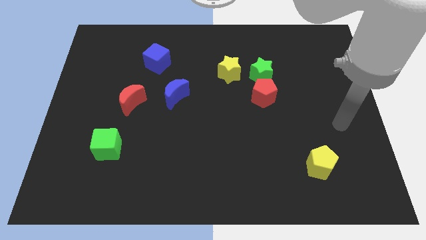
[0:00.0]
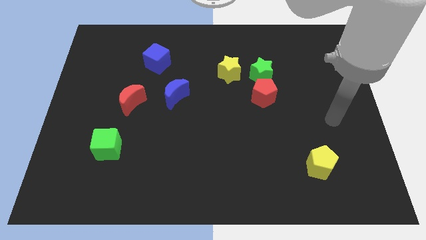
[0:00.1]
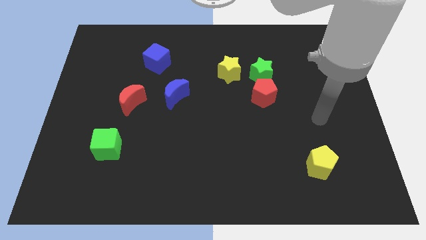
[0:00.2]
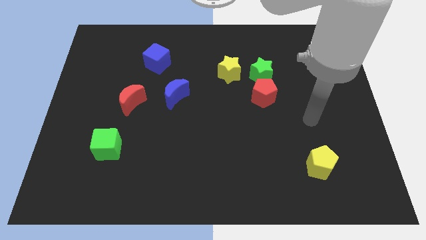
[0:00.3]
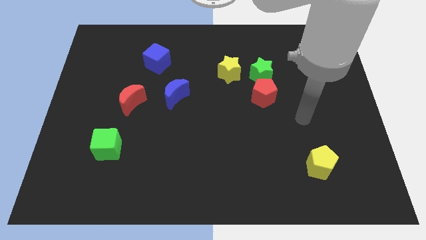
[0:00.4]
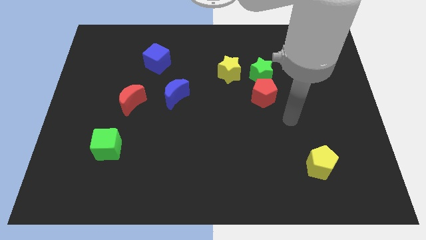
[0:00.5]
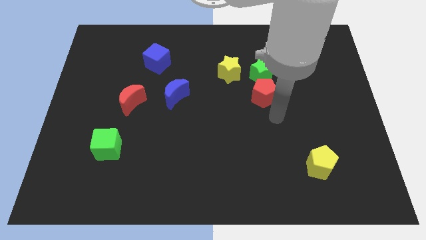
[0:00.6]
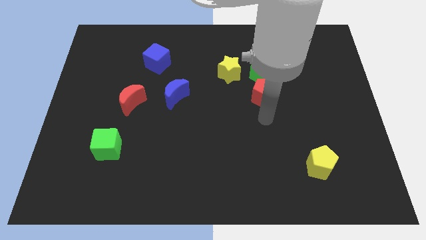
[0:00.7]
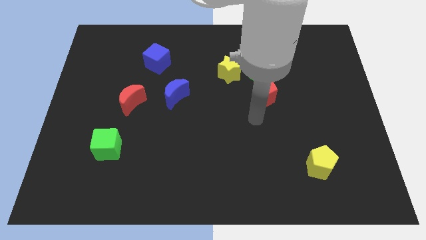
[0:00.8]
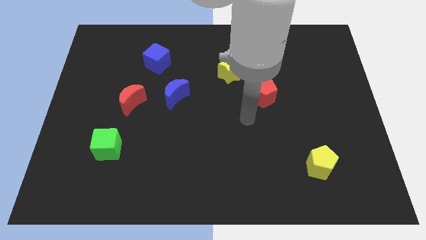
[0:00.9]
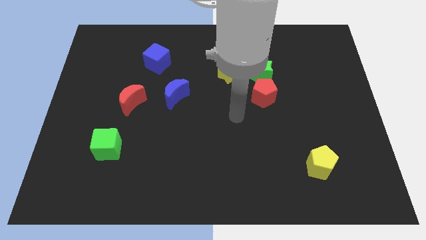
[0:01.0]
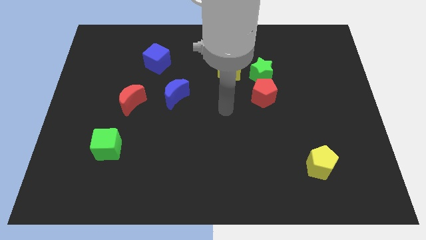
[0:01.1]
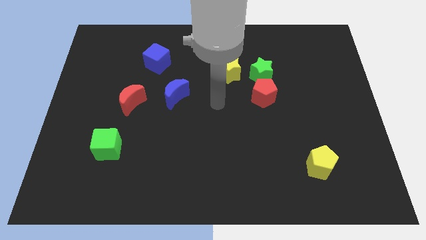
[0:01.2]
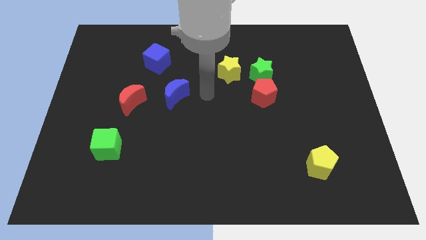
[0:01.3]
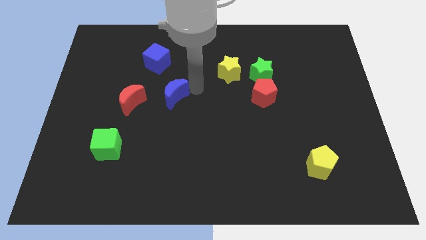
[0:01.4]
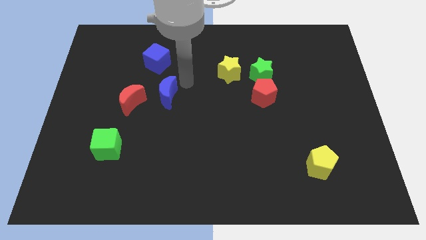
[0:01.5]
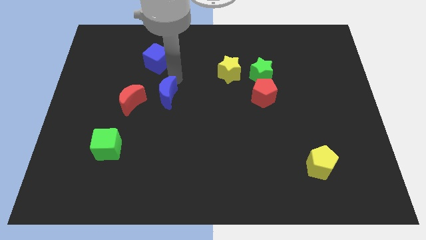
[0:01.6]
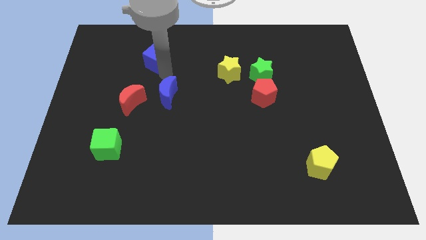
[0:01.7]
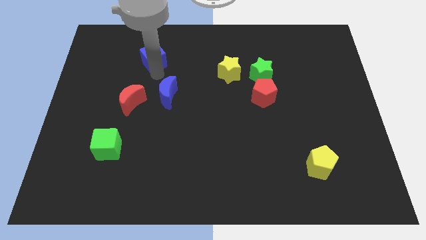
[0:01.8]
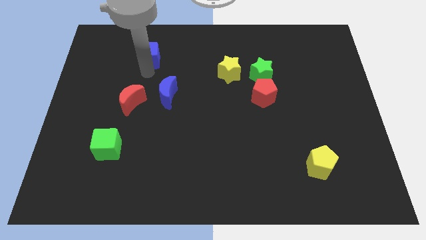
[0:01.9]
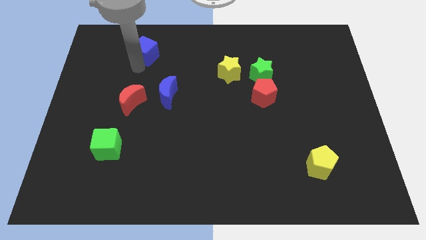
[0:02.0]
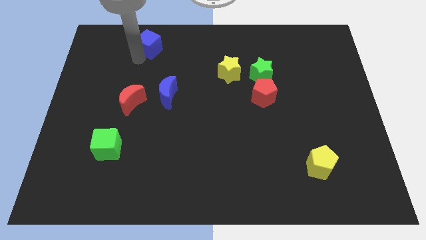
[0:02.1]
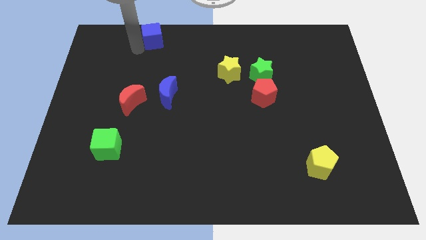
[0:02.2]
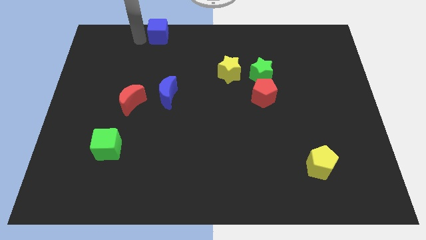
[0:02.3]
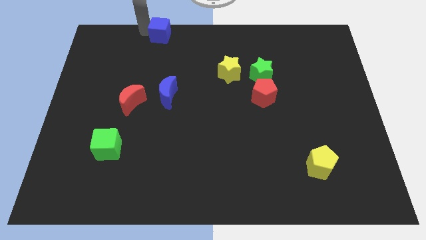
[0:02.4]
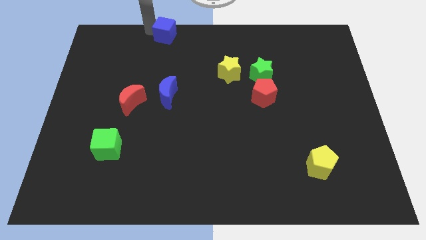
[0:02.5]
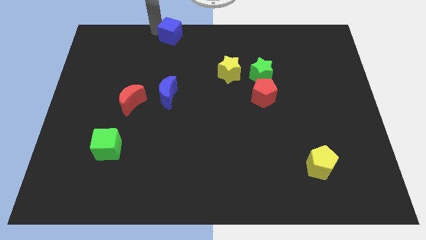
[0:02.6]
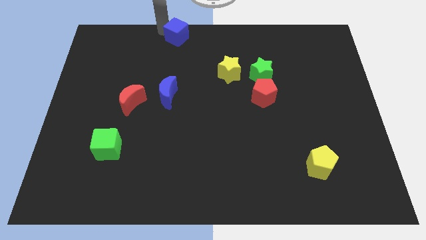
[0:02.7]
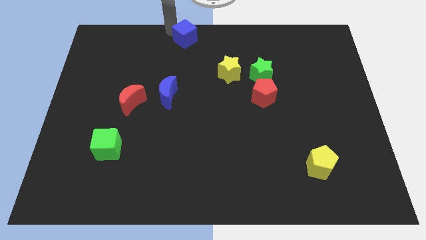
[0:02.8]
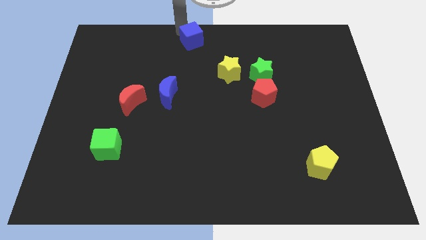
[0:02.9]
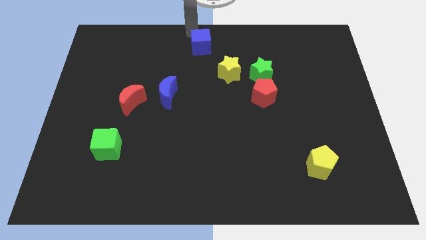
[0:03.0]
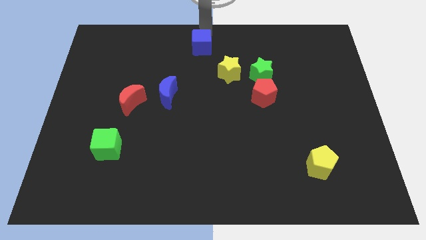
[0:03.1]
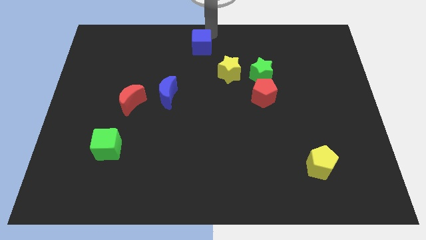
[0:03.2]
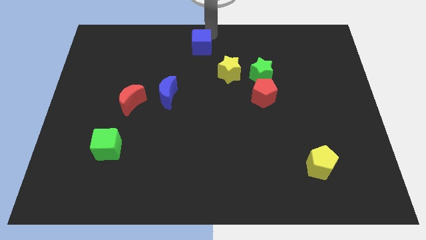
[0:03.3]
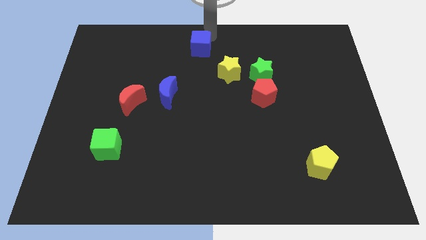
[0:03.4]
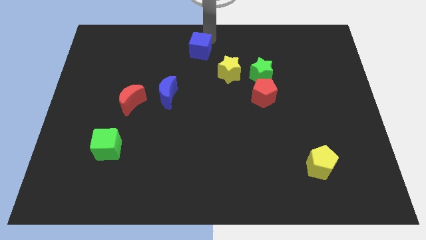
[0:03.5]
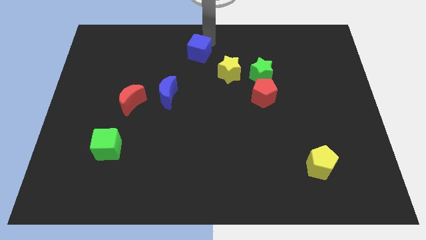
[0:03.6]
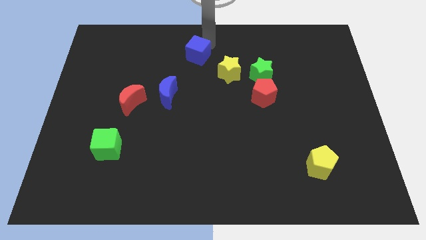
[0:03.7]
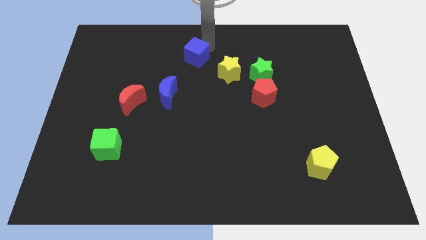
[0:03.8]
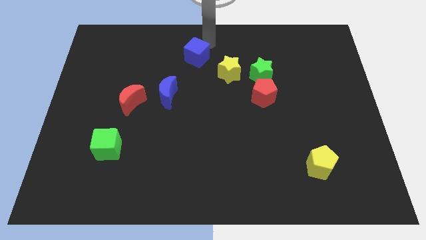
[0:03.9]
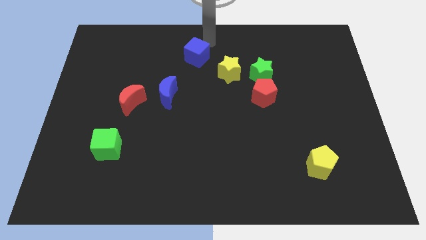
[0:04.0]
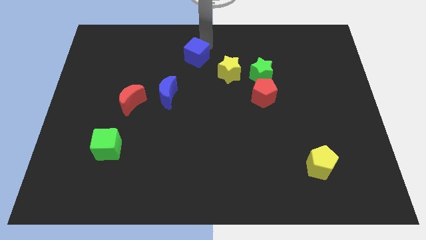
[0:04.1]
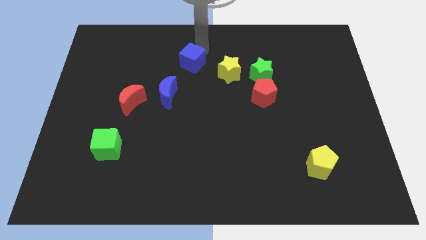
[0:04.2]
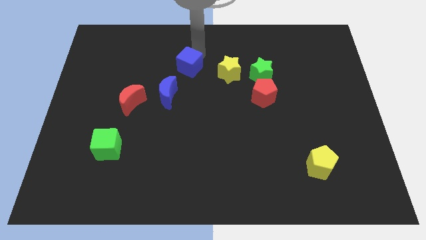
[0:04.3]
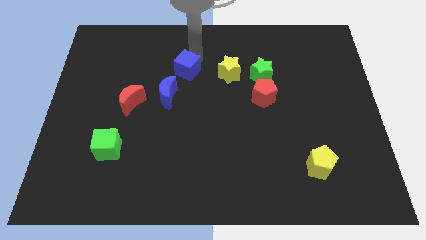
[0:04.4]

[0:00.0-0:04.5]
slightly slide the blue cube diagonally downwards and to the right

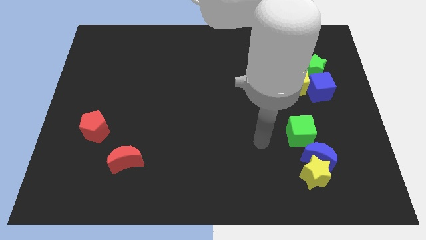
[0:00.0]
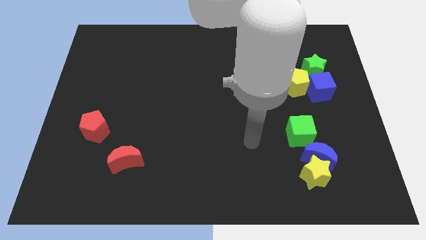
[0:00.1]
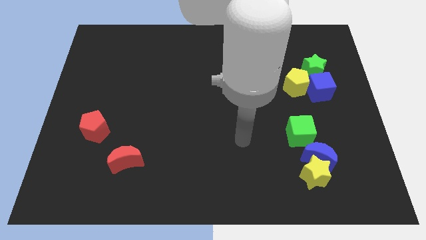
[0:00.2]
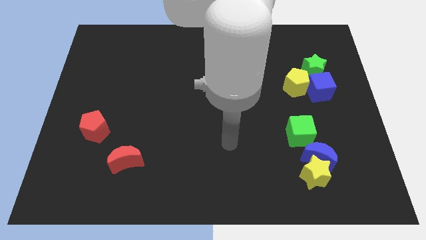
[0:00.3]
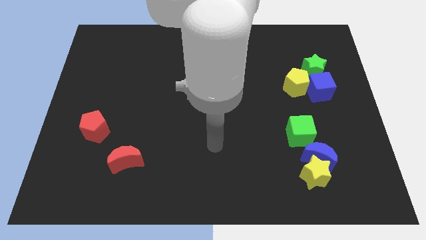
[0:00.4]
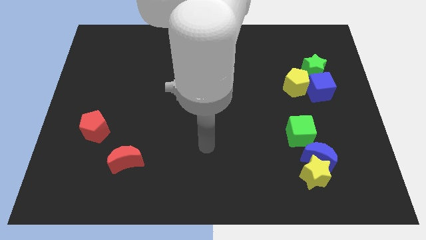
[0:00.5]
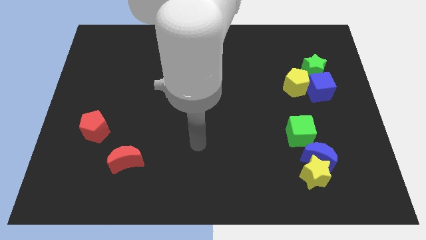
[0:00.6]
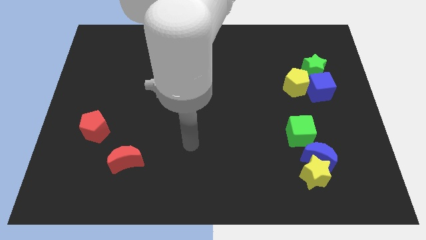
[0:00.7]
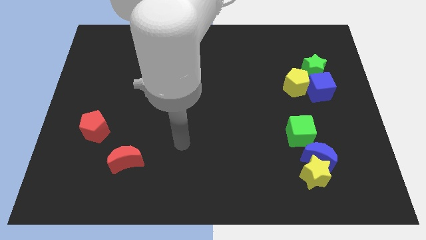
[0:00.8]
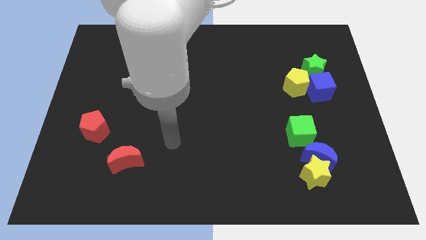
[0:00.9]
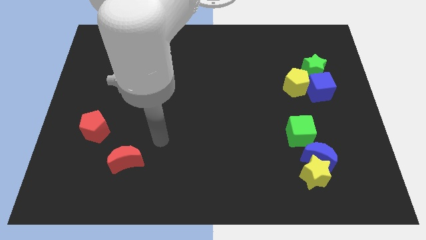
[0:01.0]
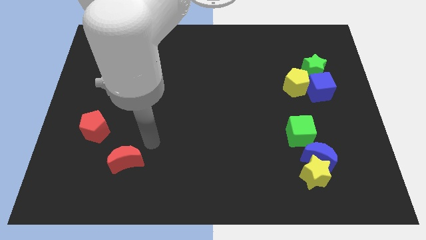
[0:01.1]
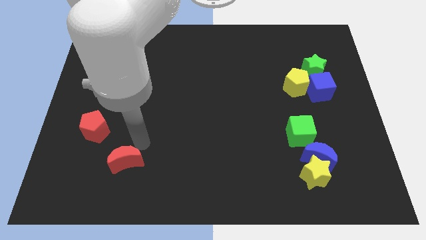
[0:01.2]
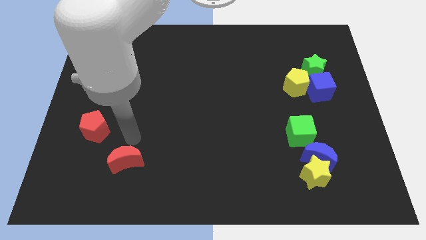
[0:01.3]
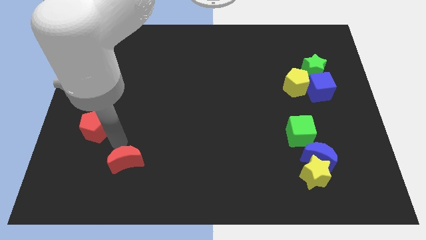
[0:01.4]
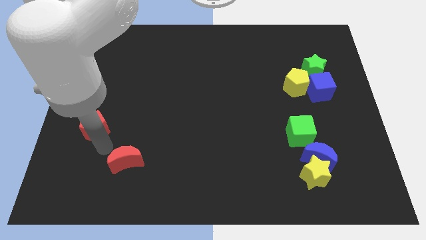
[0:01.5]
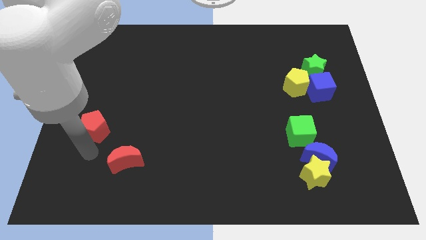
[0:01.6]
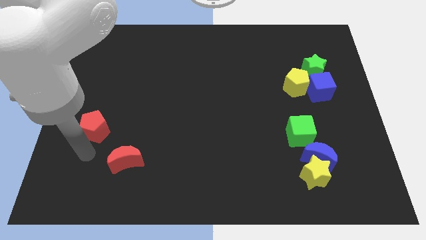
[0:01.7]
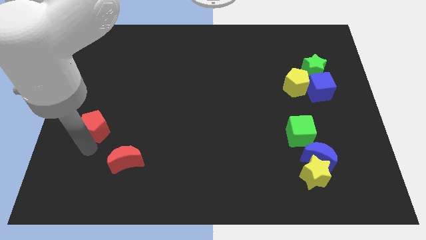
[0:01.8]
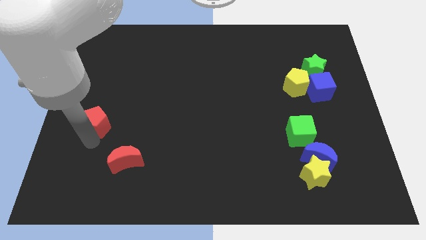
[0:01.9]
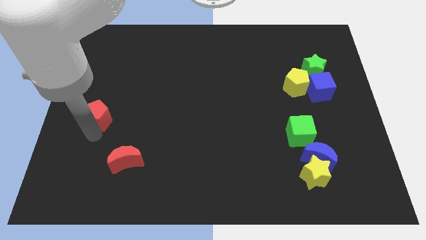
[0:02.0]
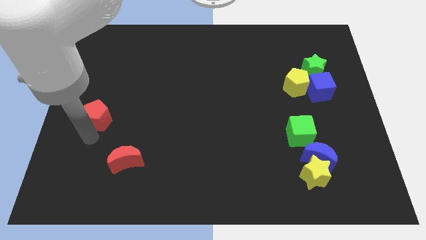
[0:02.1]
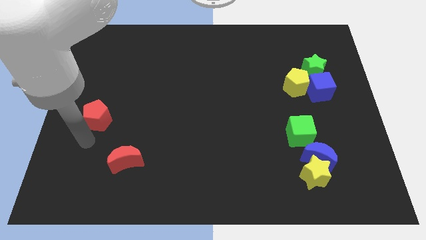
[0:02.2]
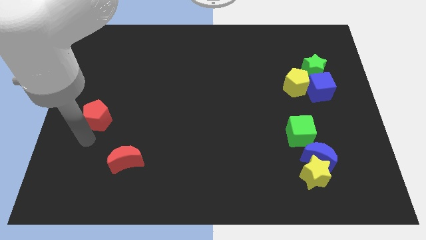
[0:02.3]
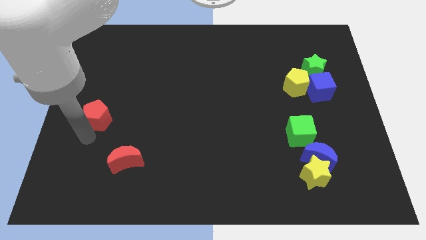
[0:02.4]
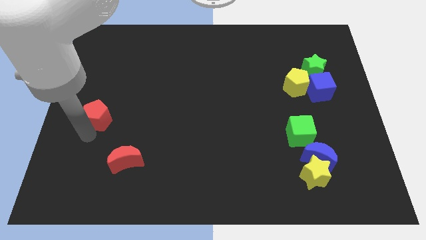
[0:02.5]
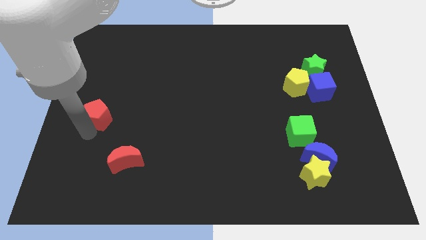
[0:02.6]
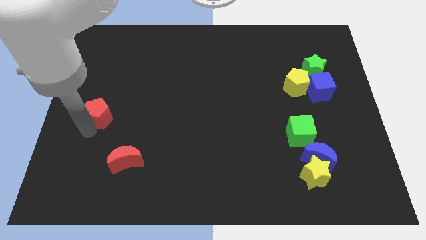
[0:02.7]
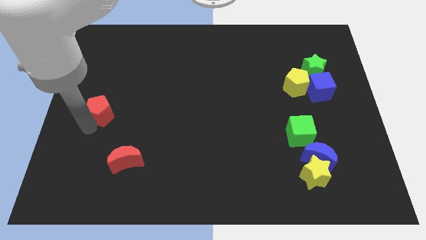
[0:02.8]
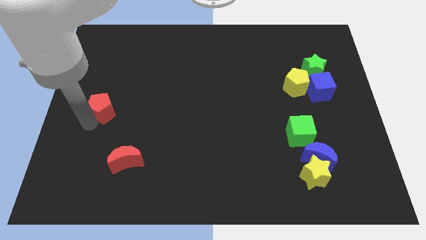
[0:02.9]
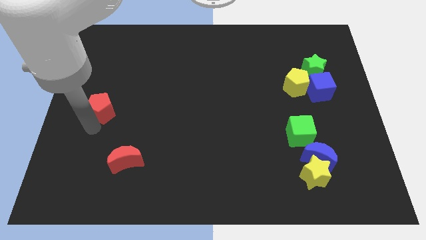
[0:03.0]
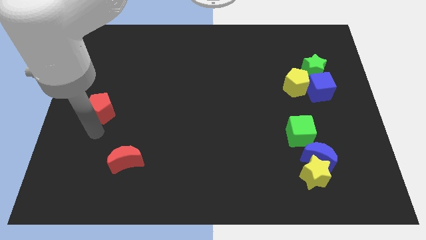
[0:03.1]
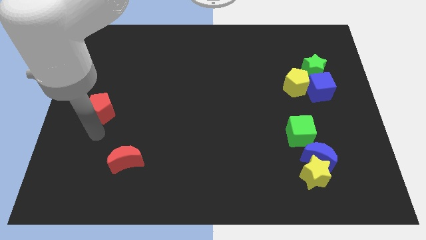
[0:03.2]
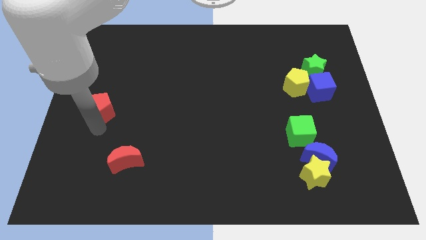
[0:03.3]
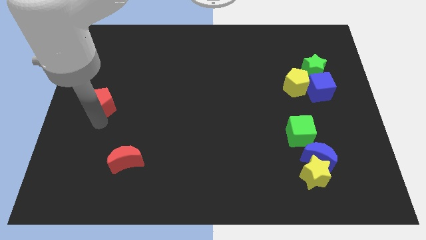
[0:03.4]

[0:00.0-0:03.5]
slide the red pentagon up somewhat
